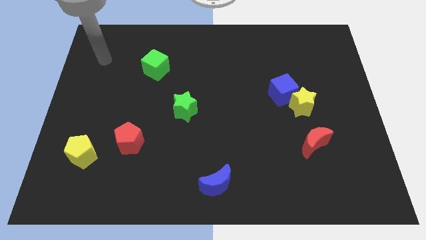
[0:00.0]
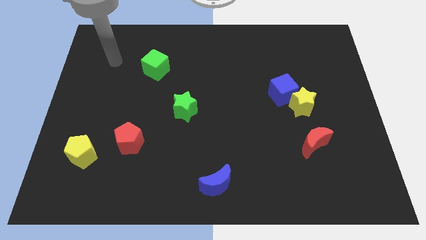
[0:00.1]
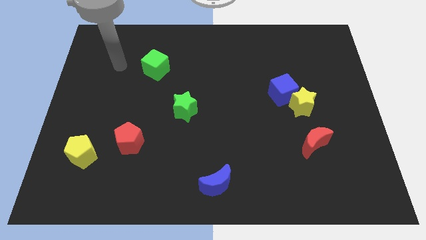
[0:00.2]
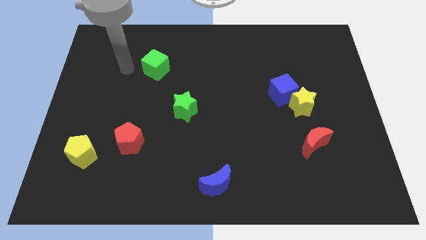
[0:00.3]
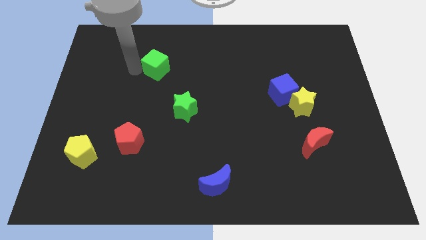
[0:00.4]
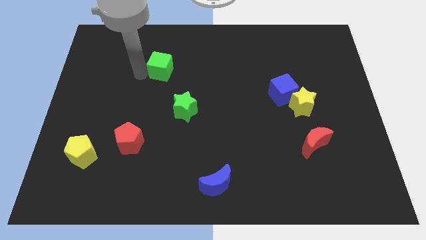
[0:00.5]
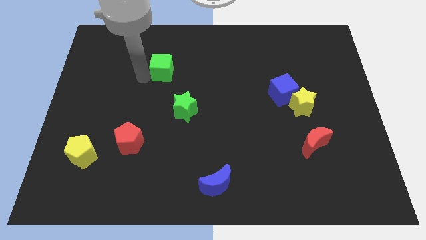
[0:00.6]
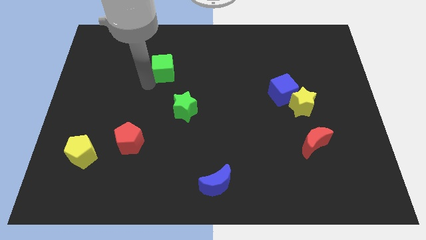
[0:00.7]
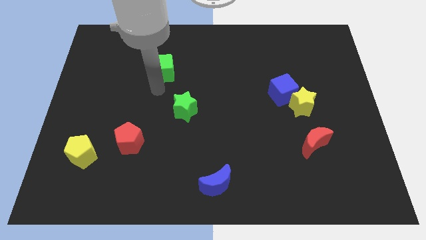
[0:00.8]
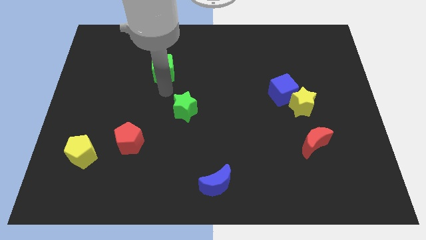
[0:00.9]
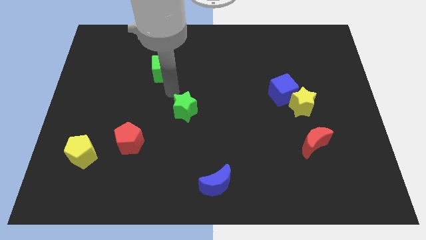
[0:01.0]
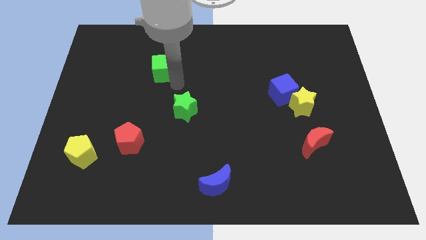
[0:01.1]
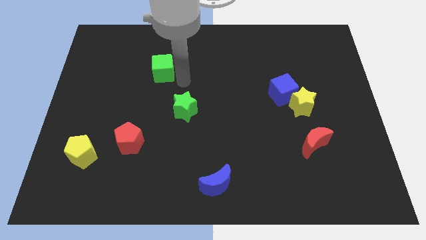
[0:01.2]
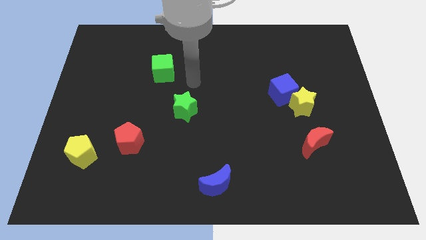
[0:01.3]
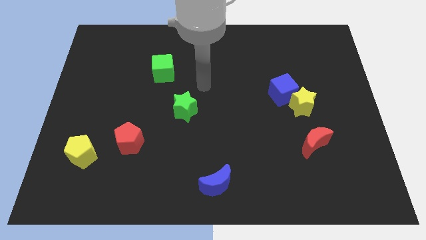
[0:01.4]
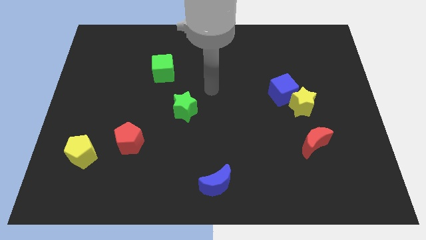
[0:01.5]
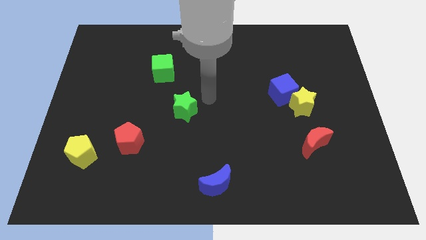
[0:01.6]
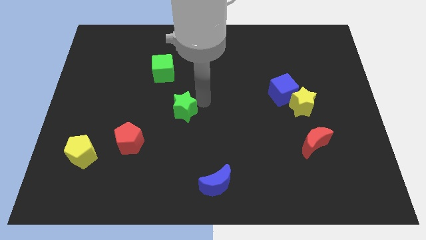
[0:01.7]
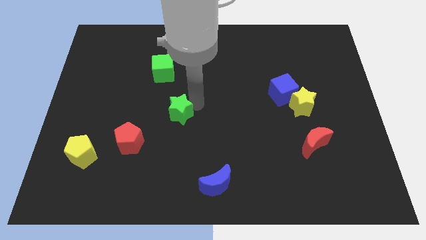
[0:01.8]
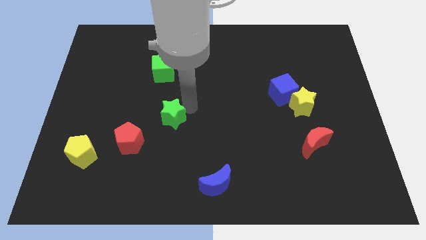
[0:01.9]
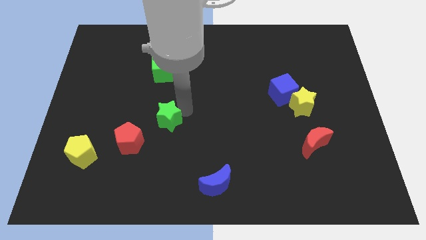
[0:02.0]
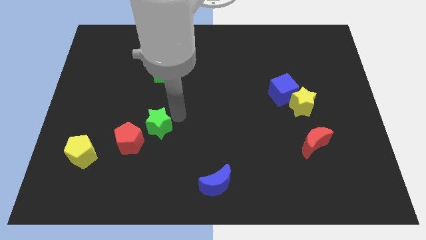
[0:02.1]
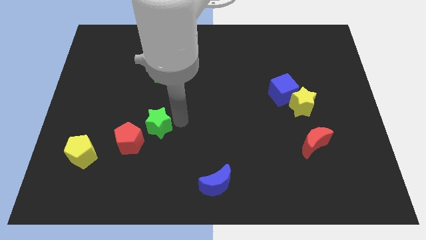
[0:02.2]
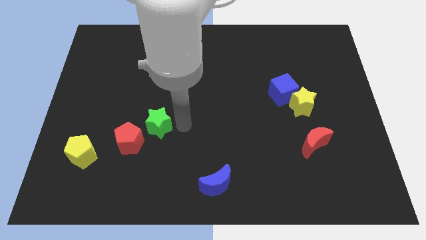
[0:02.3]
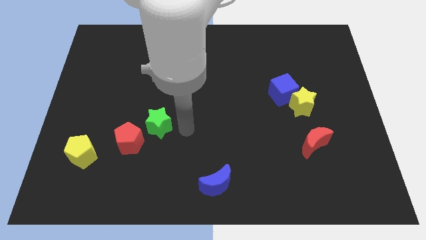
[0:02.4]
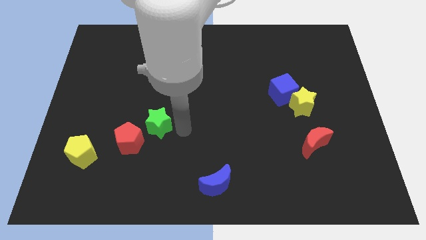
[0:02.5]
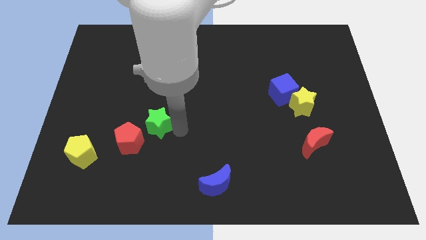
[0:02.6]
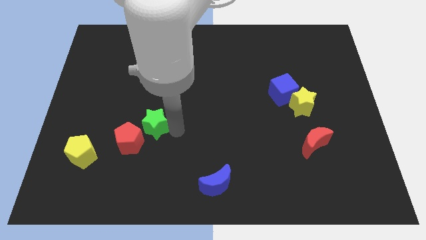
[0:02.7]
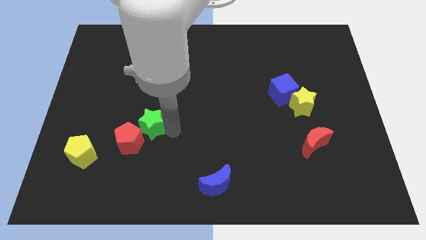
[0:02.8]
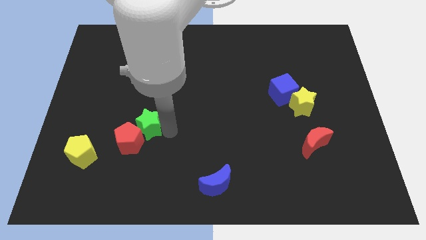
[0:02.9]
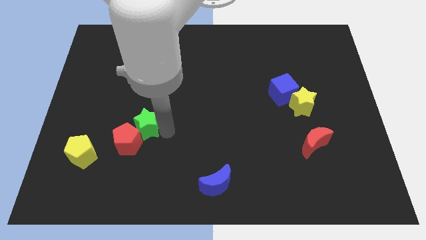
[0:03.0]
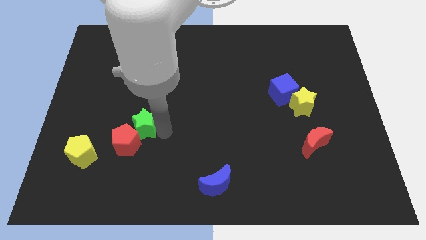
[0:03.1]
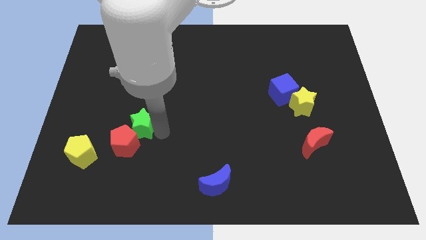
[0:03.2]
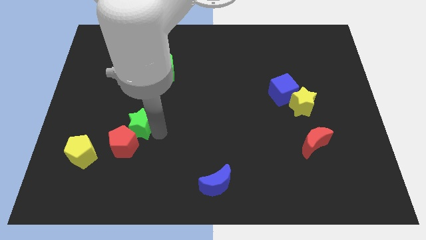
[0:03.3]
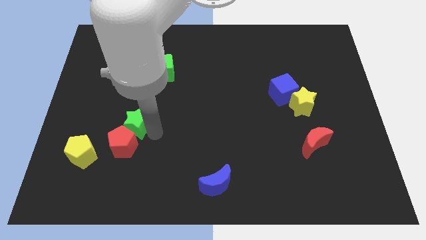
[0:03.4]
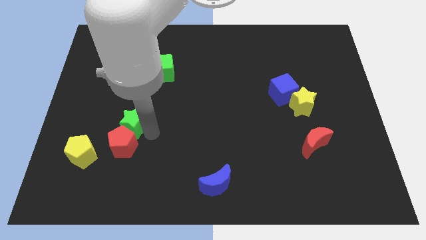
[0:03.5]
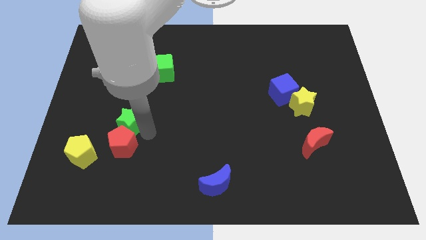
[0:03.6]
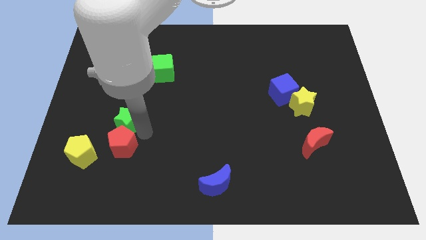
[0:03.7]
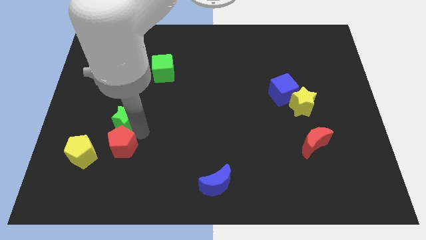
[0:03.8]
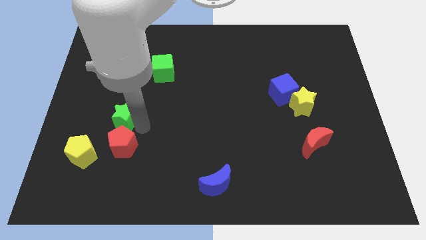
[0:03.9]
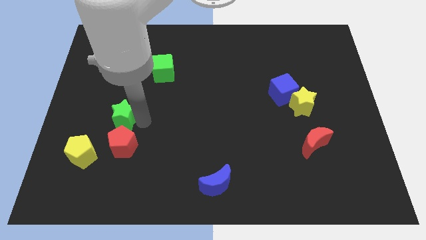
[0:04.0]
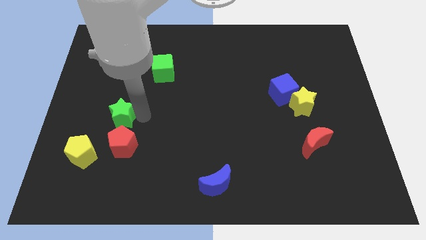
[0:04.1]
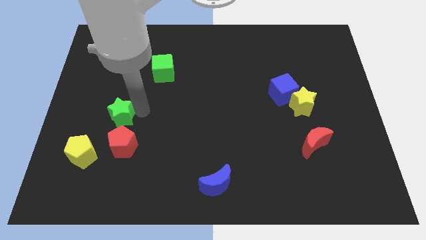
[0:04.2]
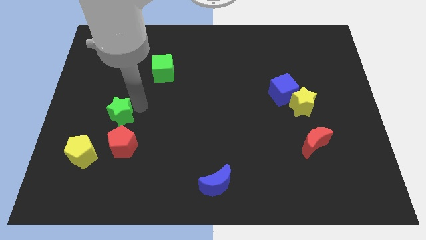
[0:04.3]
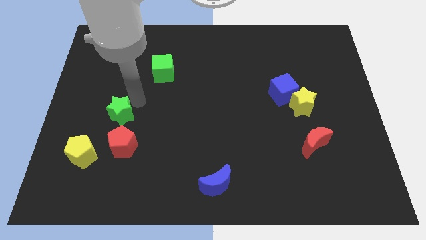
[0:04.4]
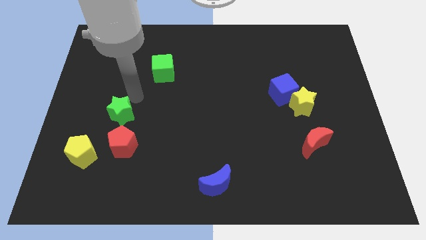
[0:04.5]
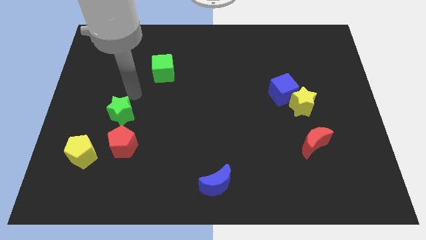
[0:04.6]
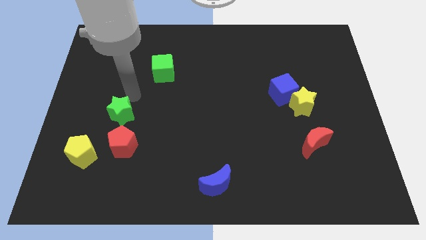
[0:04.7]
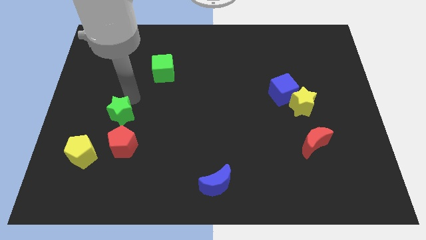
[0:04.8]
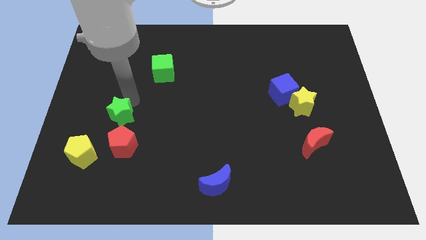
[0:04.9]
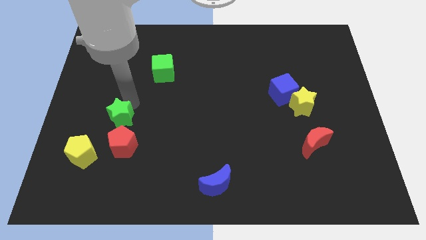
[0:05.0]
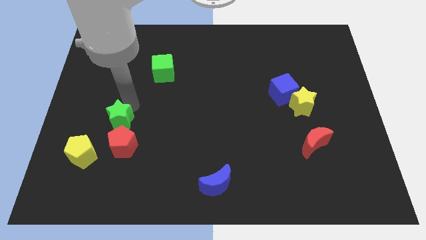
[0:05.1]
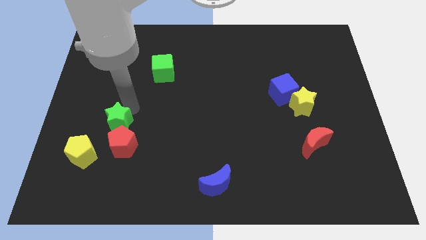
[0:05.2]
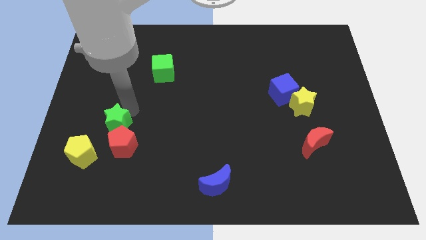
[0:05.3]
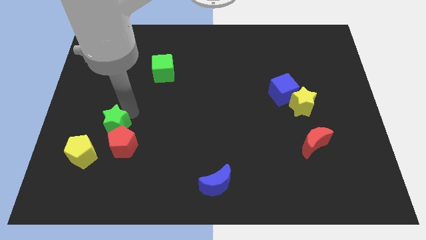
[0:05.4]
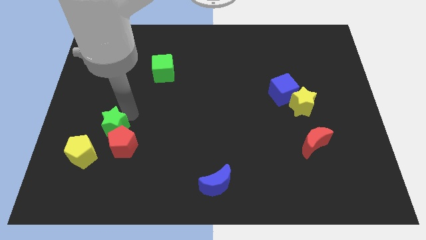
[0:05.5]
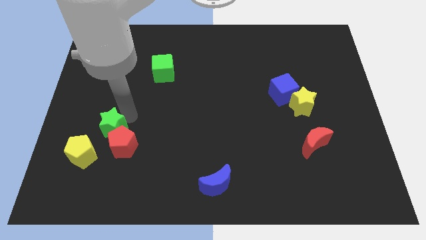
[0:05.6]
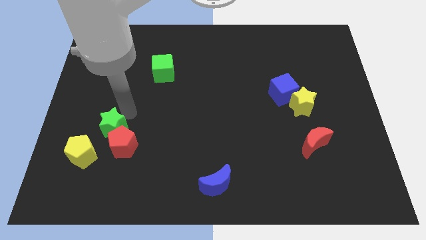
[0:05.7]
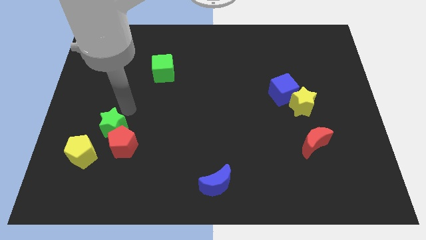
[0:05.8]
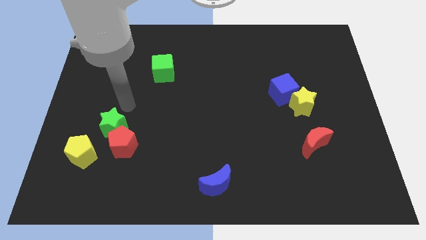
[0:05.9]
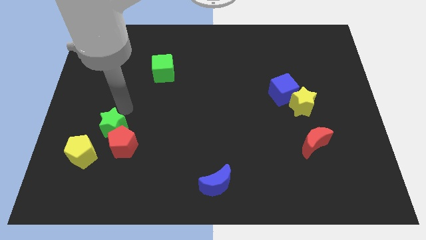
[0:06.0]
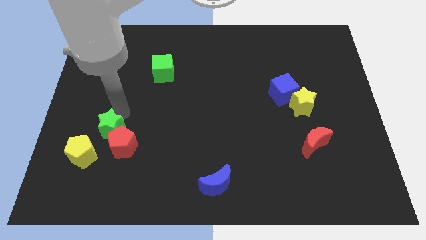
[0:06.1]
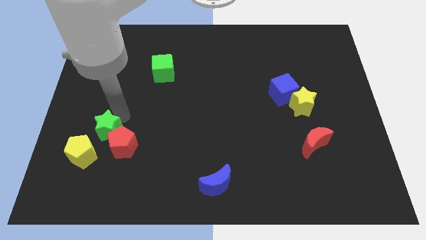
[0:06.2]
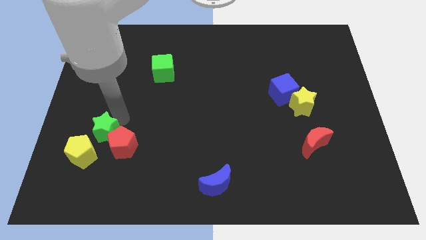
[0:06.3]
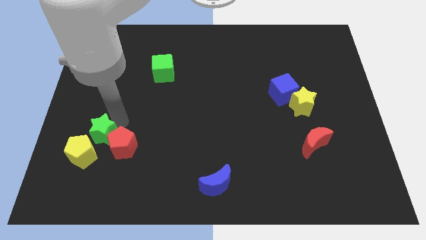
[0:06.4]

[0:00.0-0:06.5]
slide the green star next to the yellow pentagon
